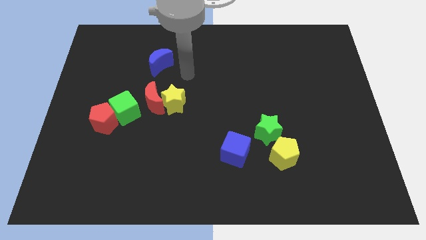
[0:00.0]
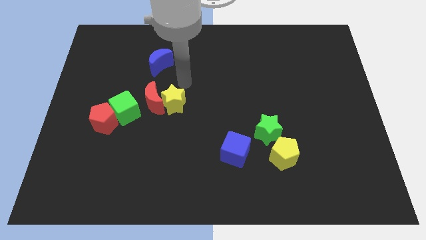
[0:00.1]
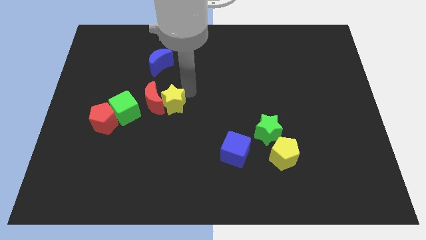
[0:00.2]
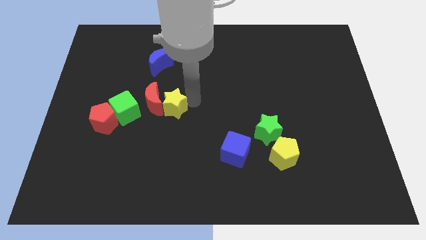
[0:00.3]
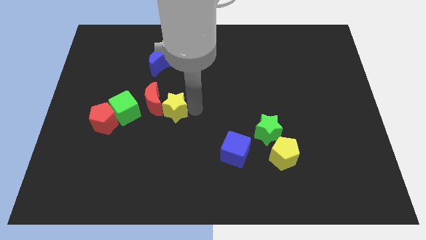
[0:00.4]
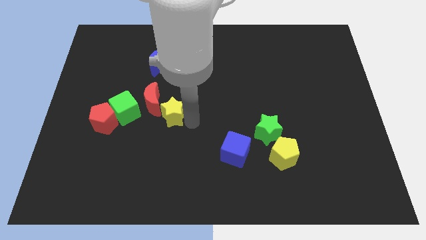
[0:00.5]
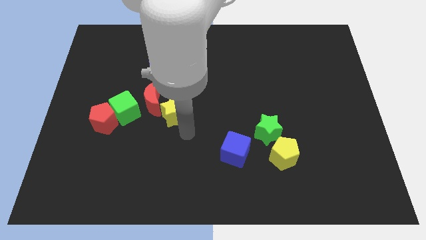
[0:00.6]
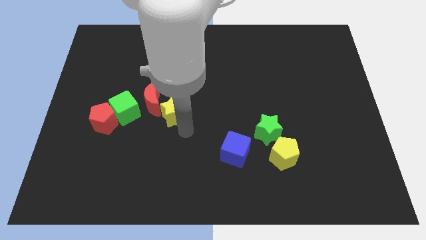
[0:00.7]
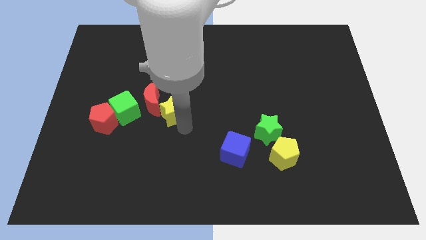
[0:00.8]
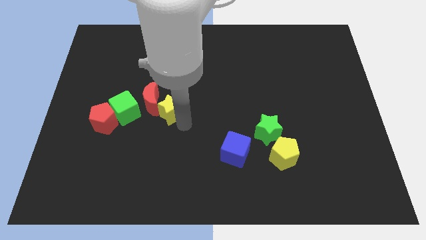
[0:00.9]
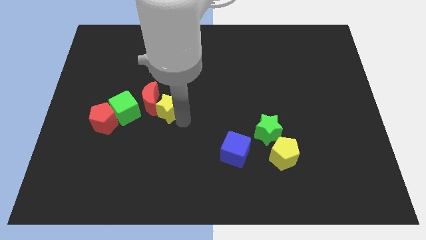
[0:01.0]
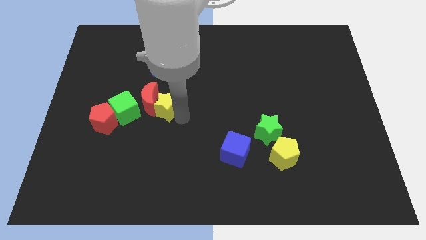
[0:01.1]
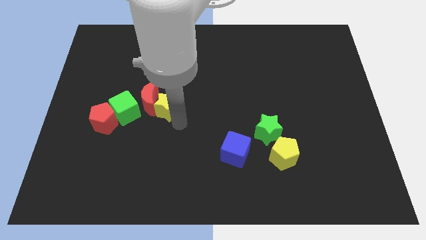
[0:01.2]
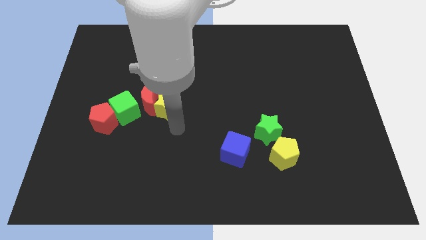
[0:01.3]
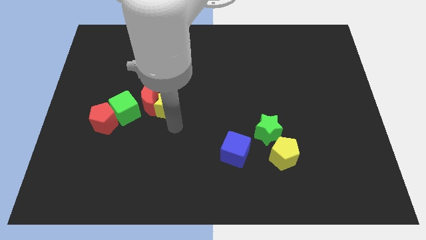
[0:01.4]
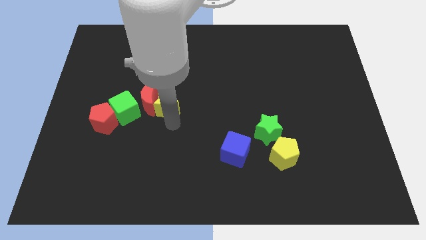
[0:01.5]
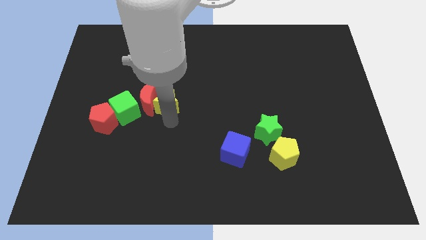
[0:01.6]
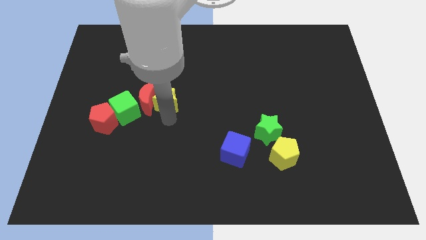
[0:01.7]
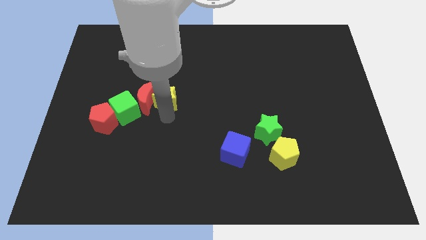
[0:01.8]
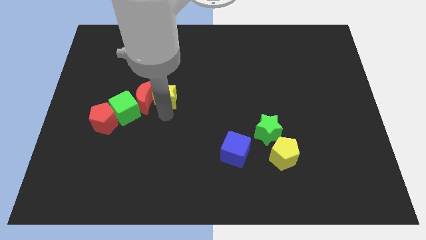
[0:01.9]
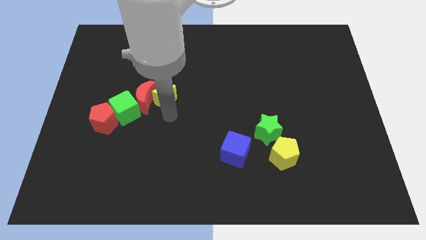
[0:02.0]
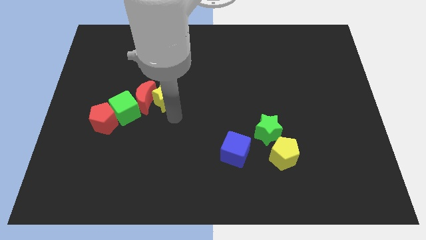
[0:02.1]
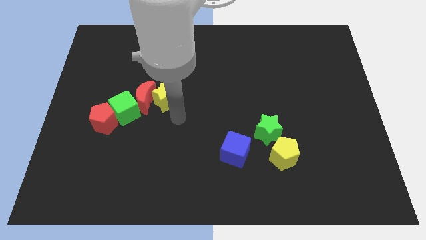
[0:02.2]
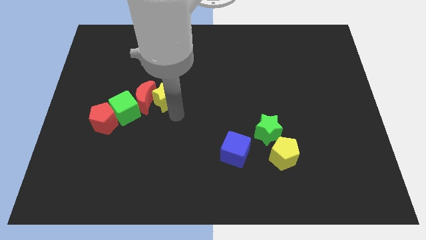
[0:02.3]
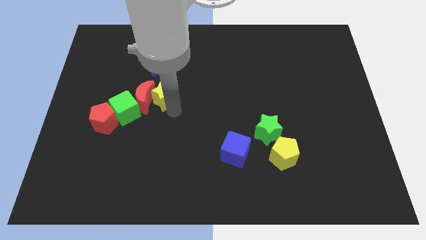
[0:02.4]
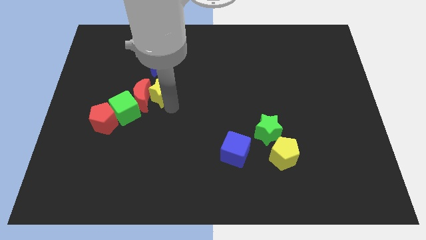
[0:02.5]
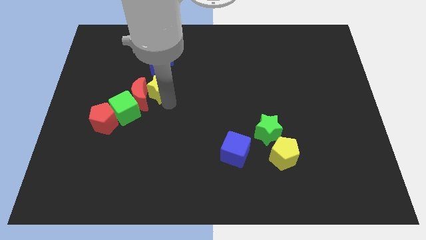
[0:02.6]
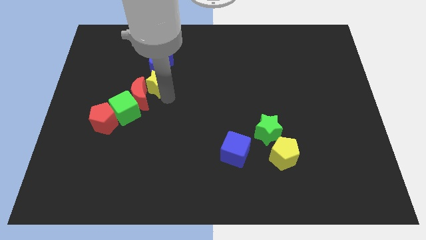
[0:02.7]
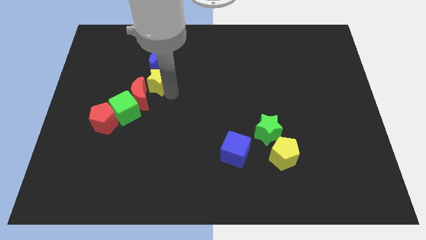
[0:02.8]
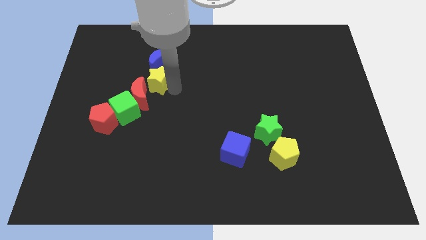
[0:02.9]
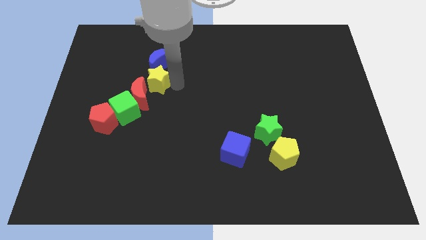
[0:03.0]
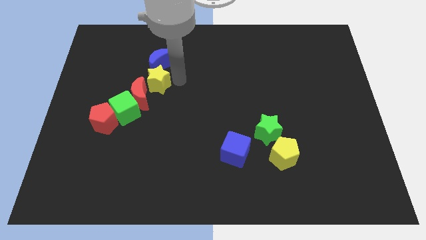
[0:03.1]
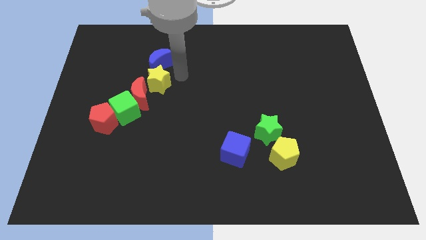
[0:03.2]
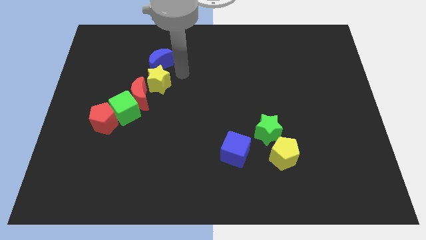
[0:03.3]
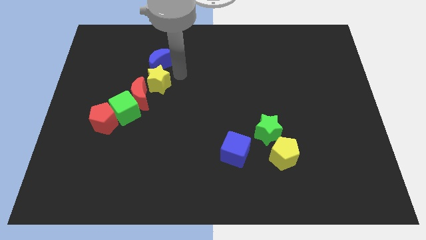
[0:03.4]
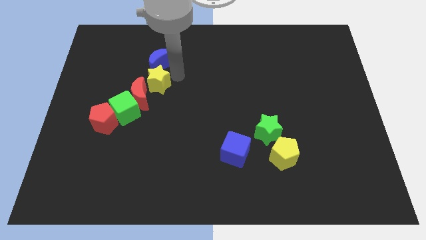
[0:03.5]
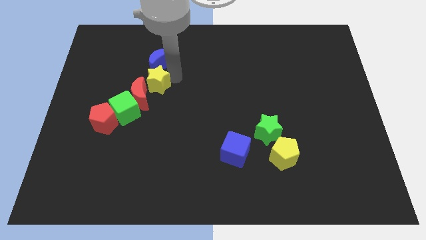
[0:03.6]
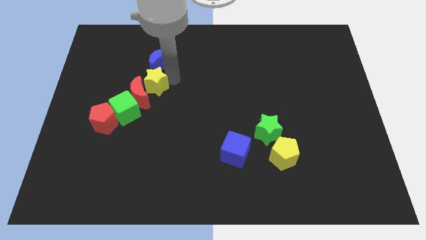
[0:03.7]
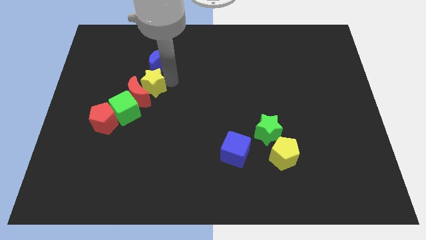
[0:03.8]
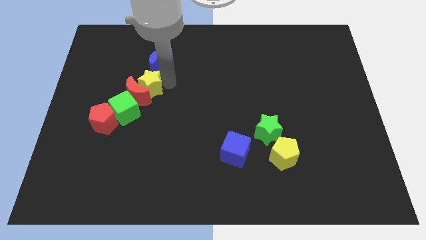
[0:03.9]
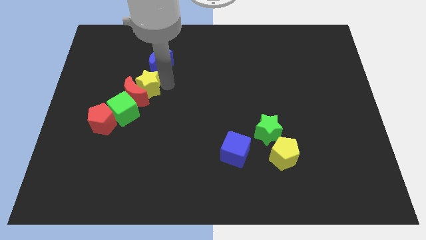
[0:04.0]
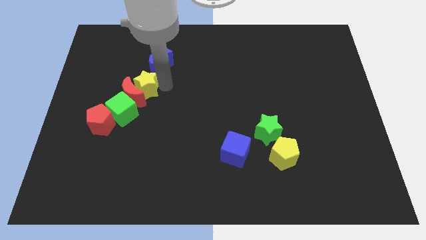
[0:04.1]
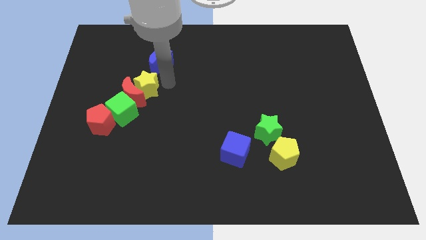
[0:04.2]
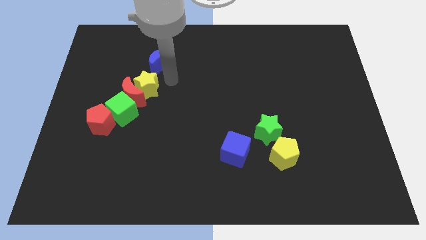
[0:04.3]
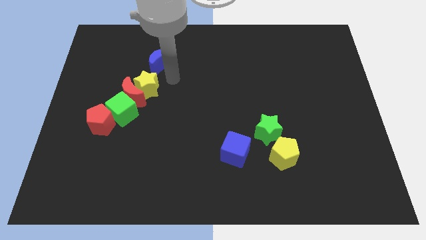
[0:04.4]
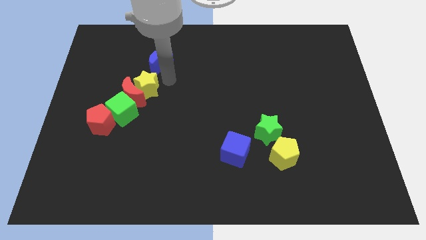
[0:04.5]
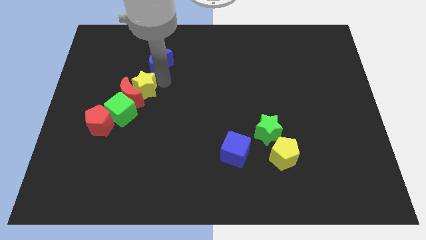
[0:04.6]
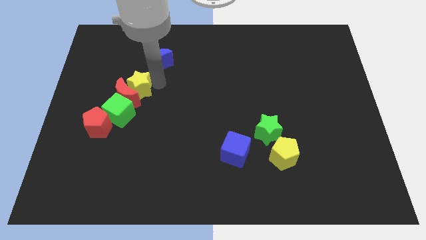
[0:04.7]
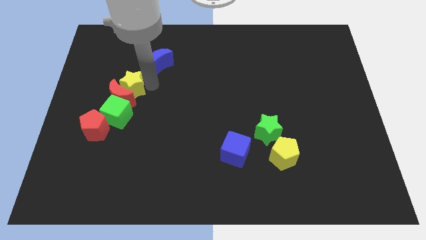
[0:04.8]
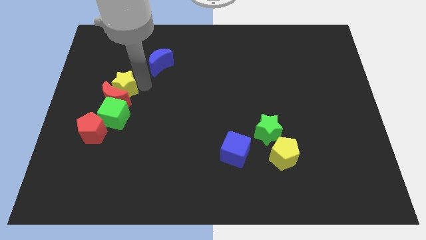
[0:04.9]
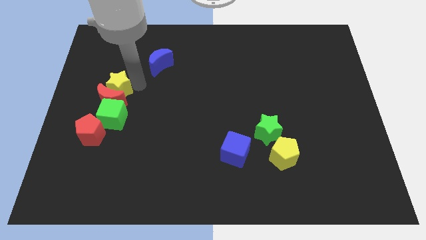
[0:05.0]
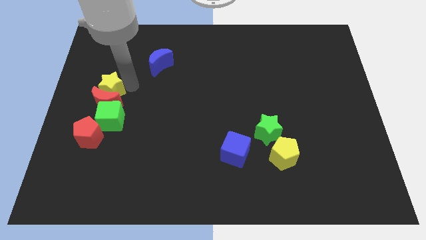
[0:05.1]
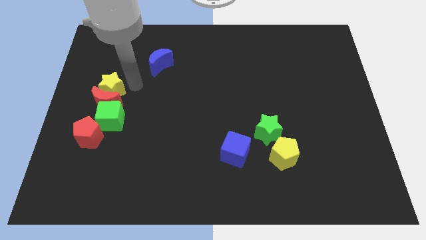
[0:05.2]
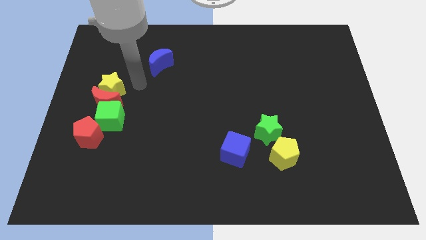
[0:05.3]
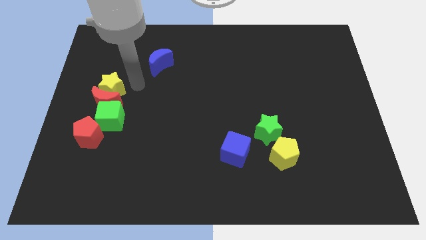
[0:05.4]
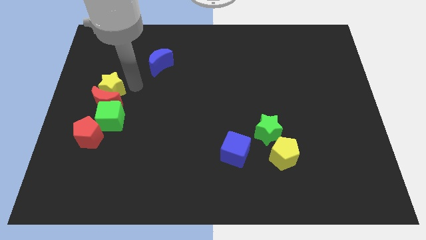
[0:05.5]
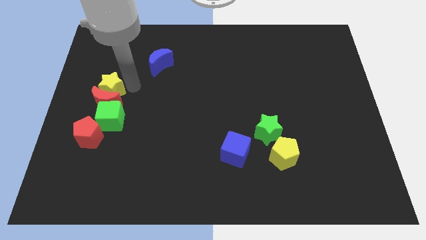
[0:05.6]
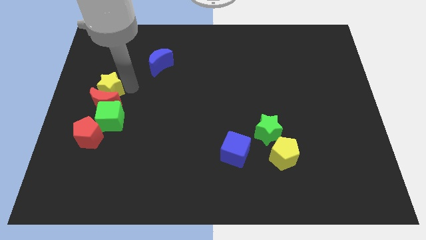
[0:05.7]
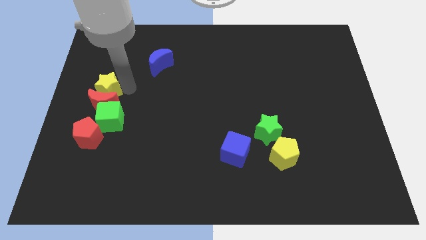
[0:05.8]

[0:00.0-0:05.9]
move the yellow star to the left side
